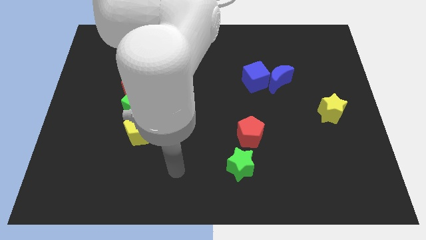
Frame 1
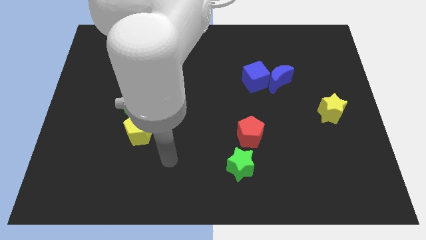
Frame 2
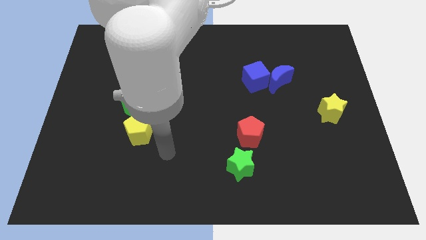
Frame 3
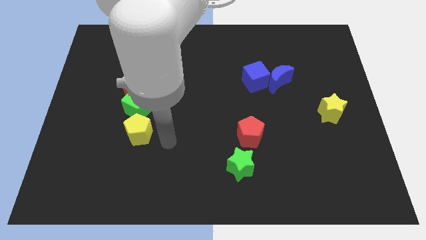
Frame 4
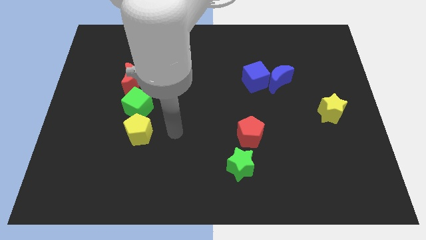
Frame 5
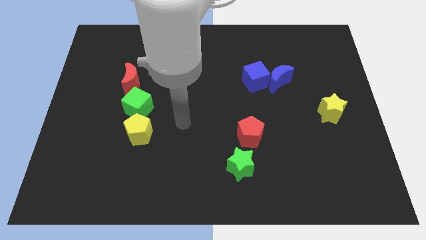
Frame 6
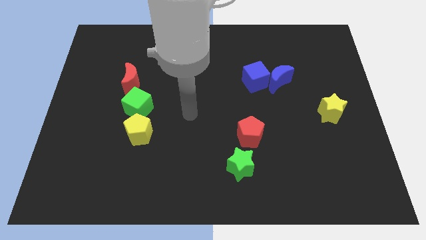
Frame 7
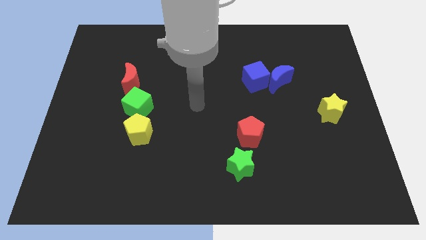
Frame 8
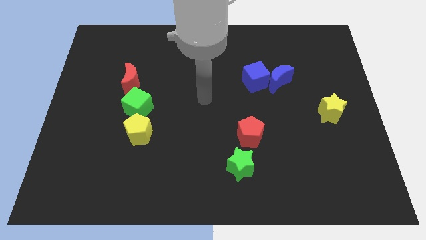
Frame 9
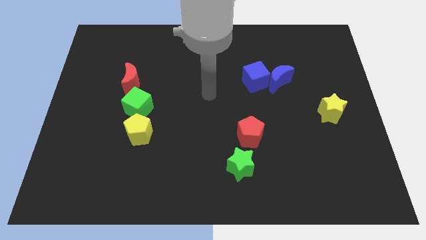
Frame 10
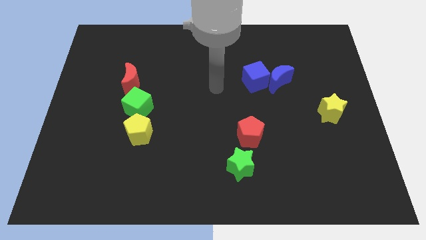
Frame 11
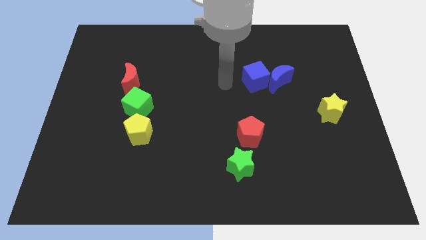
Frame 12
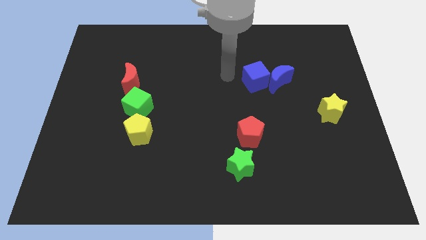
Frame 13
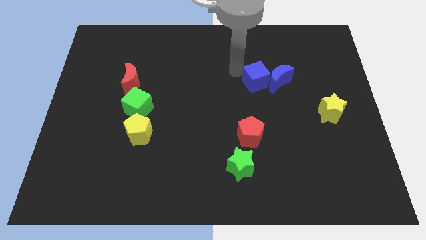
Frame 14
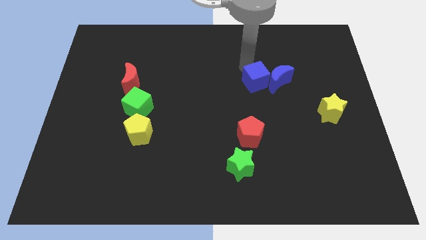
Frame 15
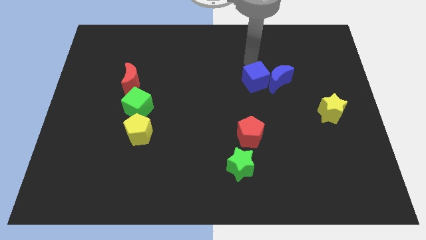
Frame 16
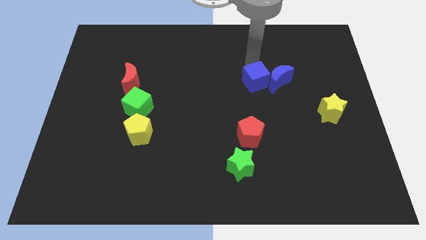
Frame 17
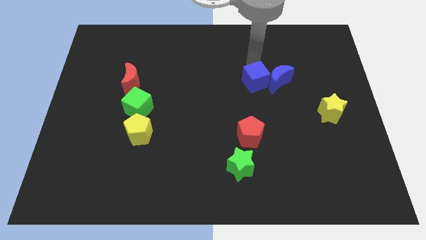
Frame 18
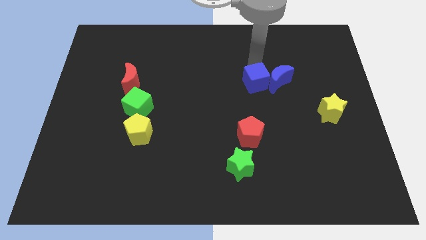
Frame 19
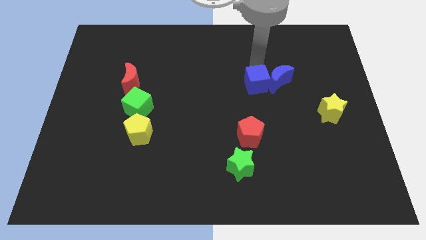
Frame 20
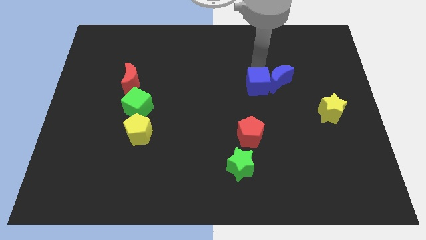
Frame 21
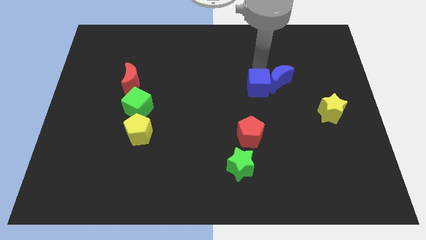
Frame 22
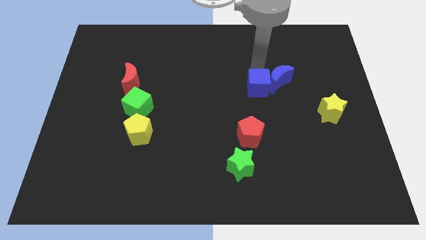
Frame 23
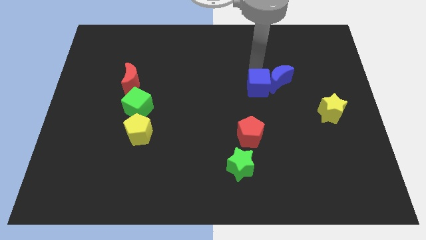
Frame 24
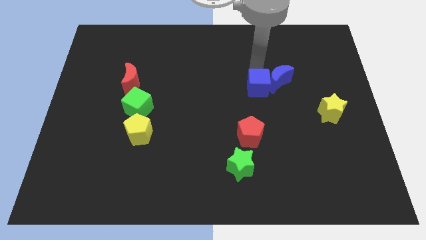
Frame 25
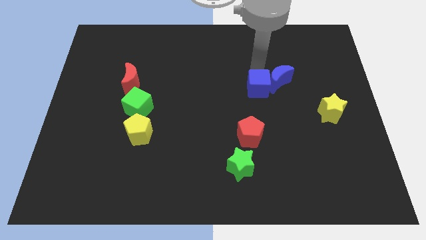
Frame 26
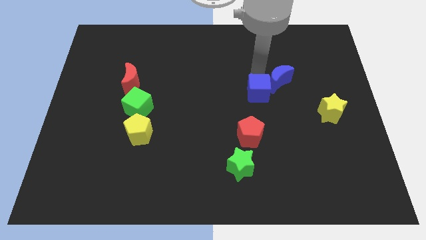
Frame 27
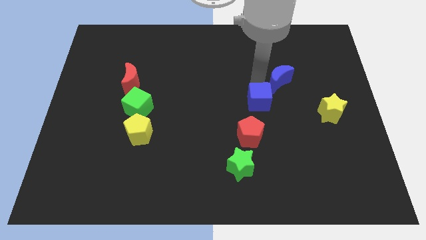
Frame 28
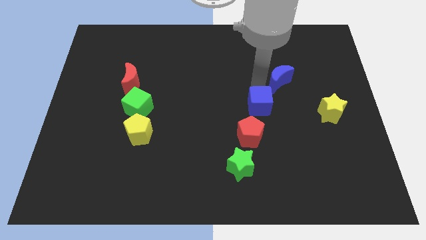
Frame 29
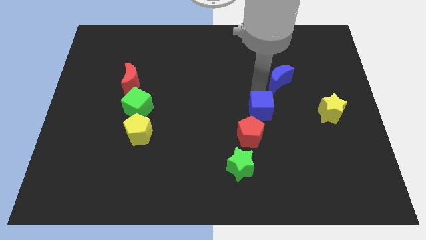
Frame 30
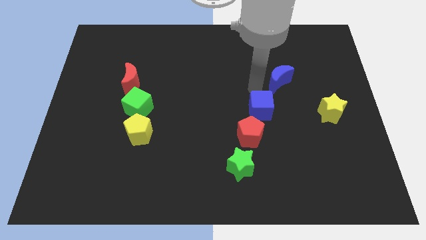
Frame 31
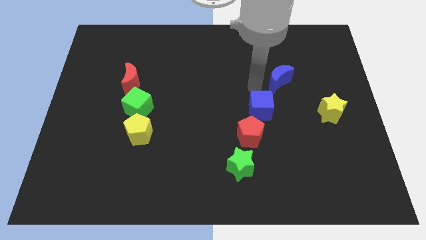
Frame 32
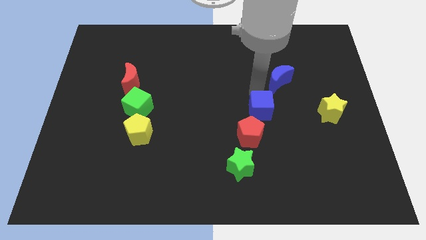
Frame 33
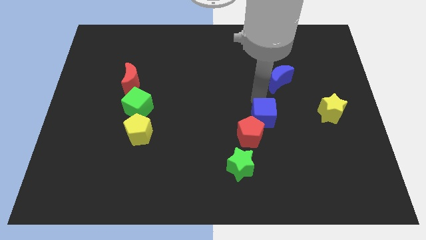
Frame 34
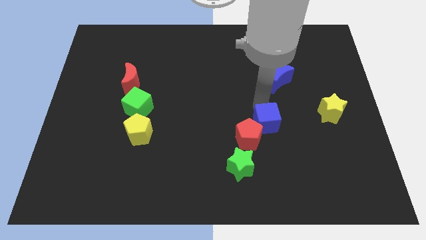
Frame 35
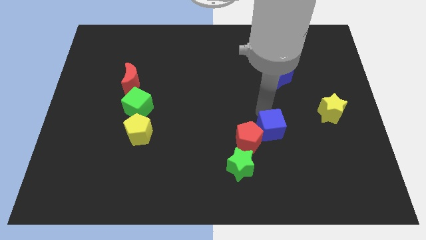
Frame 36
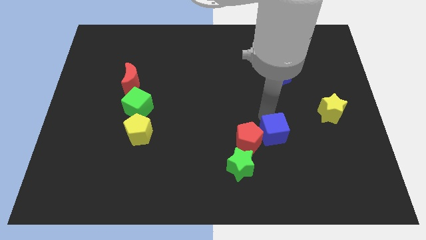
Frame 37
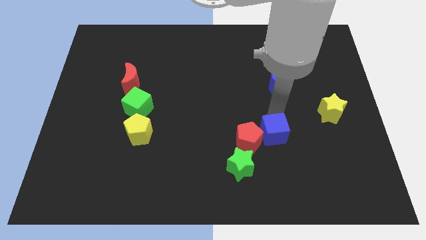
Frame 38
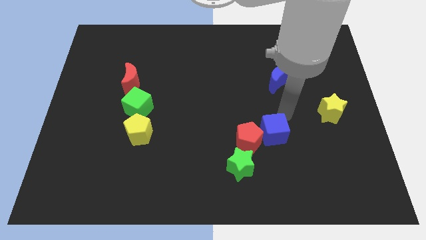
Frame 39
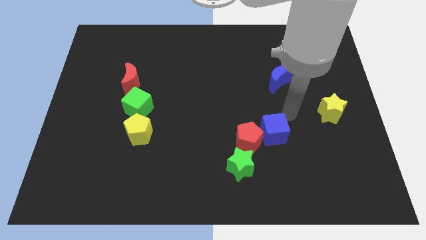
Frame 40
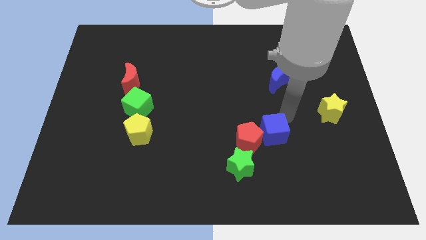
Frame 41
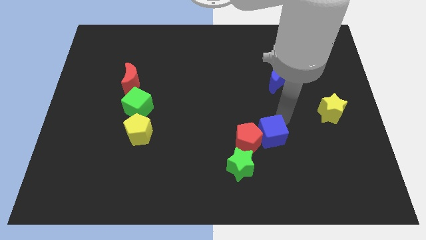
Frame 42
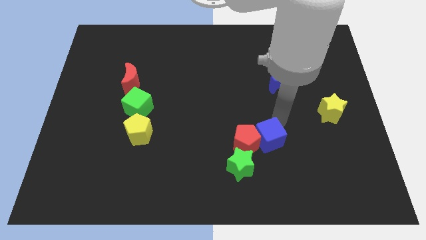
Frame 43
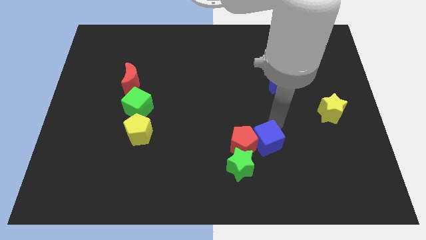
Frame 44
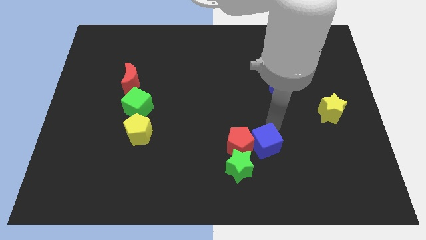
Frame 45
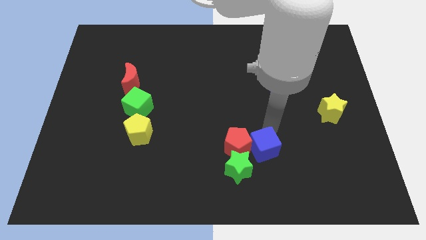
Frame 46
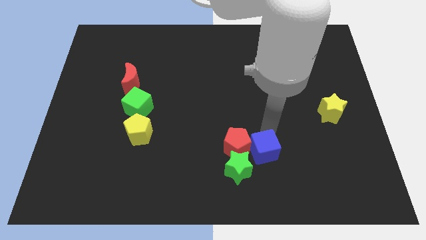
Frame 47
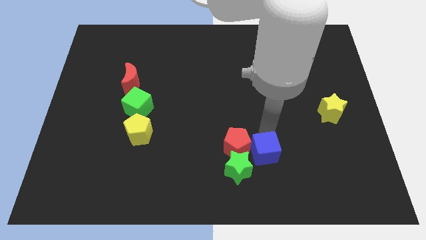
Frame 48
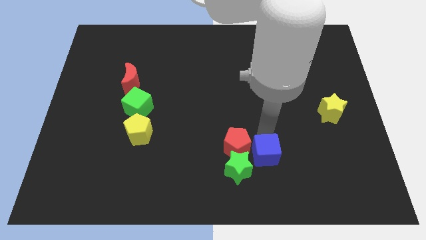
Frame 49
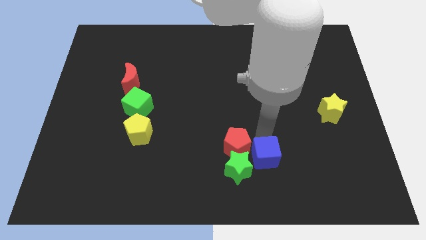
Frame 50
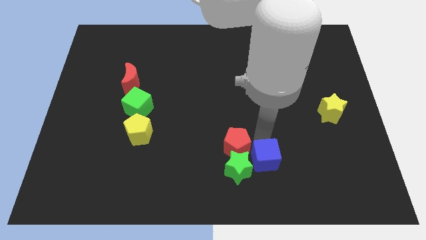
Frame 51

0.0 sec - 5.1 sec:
push the blue cube next to the green star

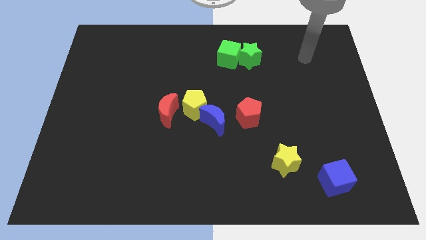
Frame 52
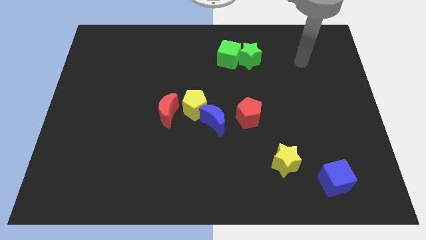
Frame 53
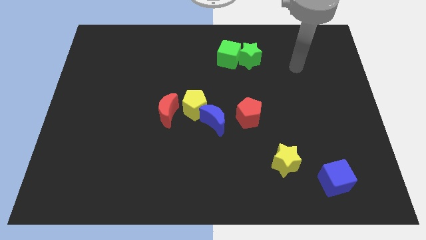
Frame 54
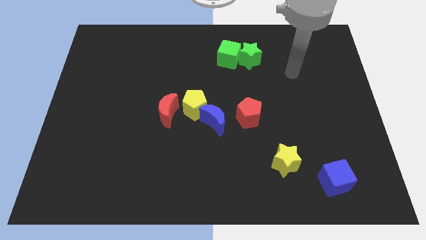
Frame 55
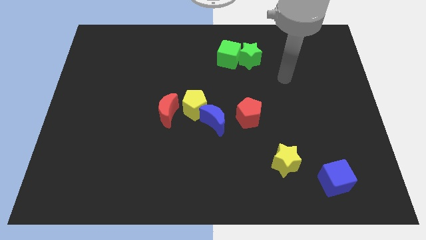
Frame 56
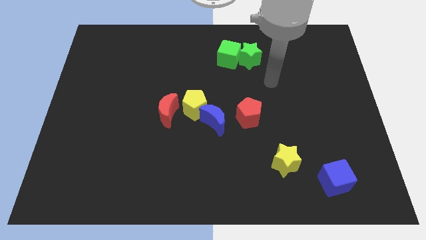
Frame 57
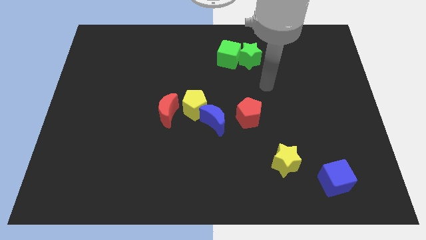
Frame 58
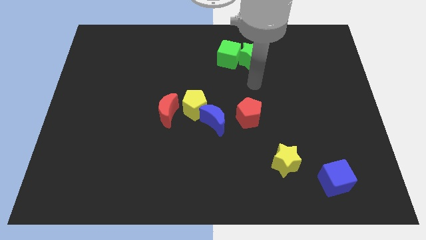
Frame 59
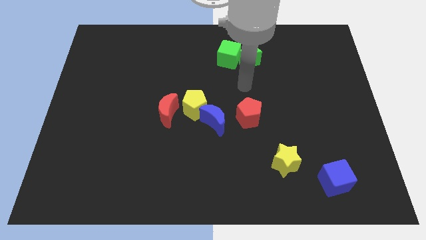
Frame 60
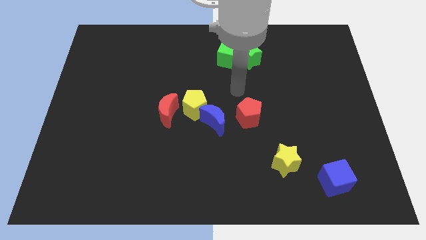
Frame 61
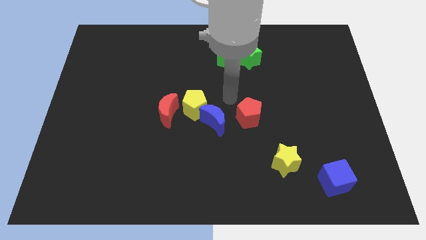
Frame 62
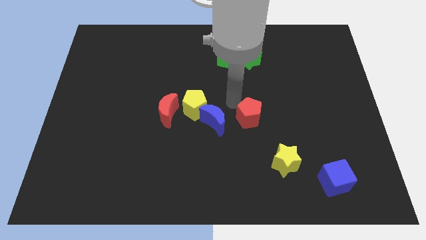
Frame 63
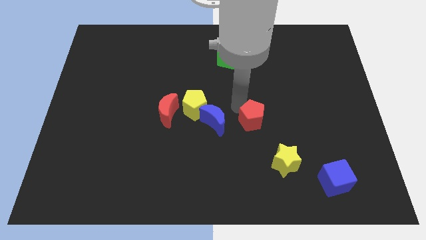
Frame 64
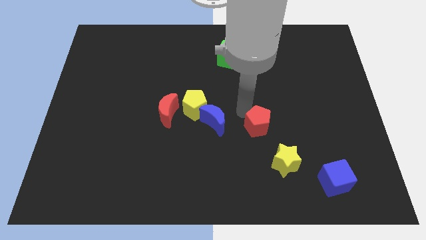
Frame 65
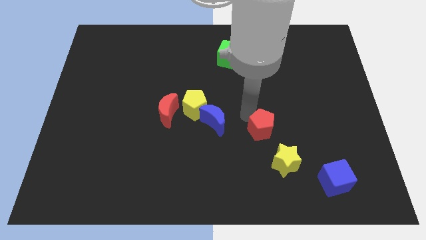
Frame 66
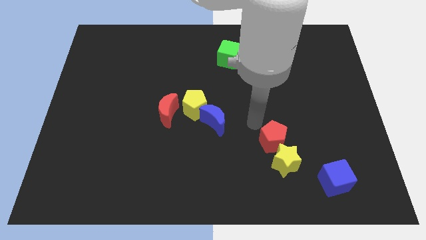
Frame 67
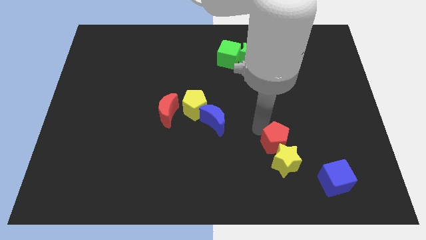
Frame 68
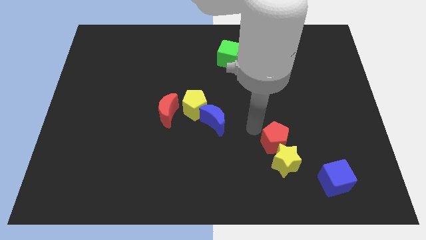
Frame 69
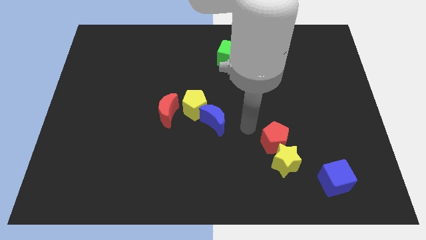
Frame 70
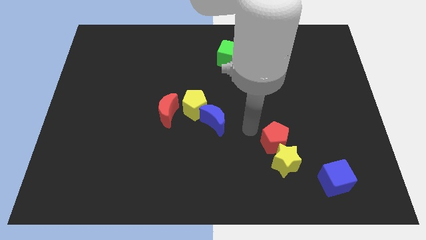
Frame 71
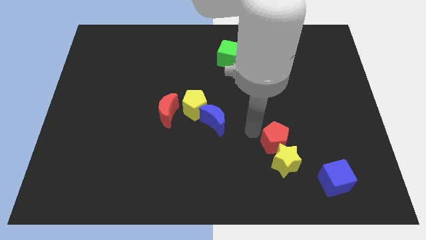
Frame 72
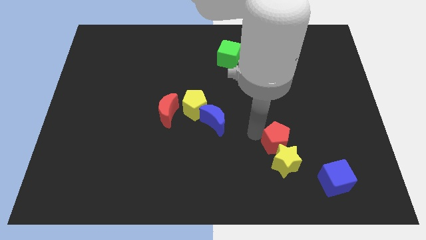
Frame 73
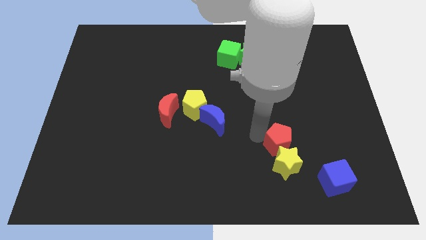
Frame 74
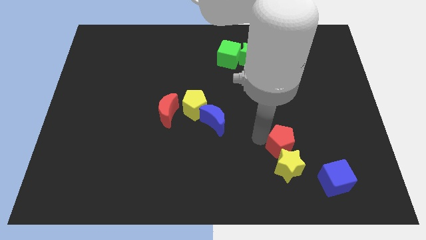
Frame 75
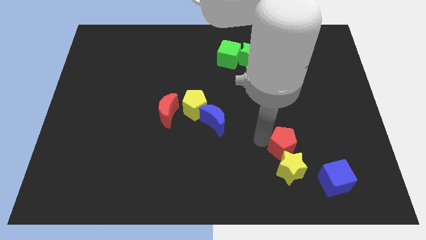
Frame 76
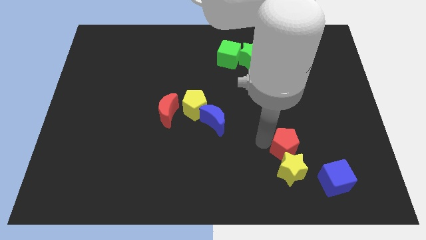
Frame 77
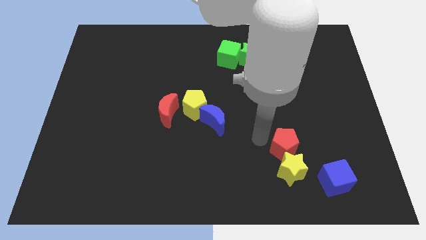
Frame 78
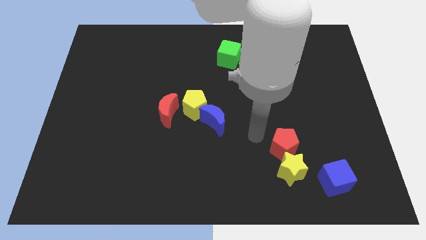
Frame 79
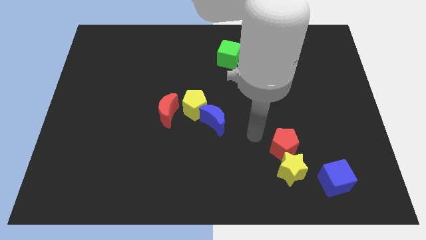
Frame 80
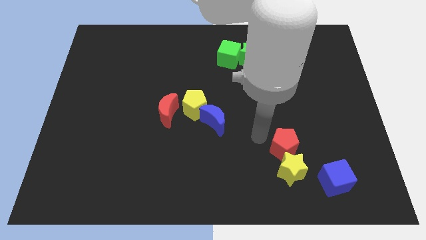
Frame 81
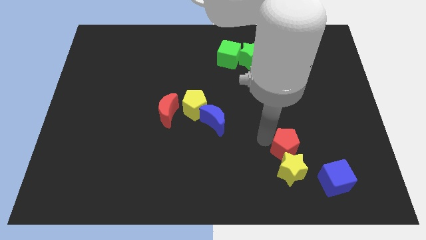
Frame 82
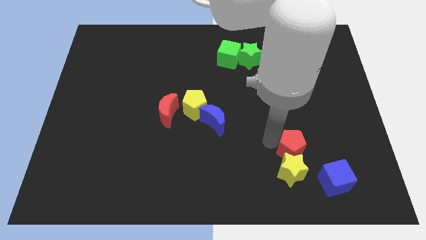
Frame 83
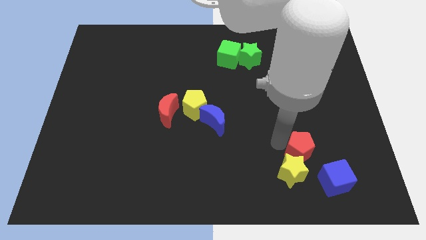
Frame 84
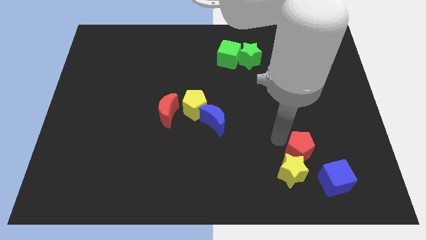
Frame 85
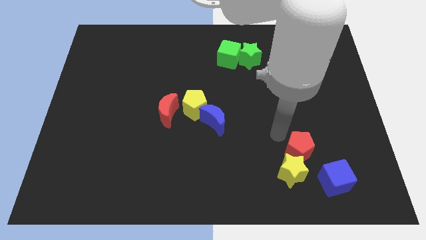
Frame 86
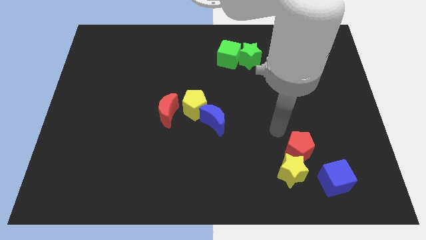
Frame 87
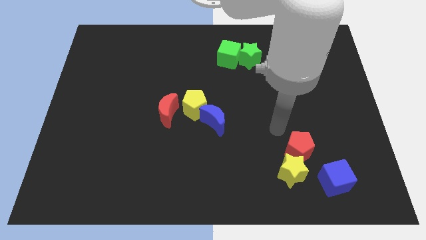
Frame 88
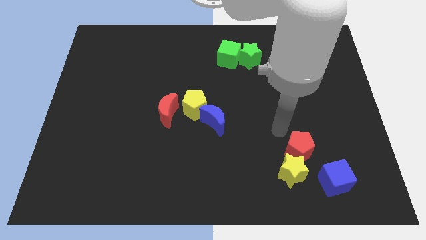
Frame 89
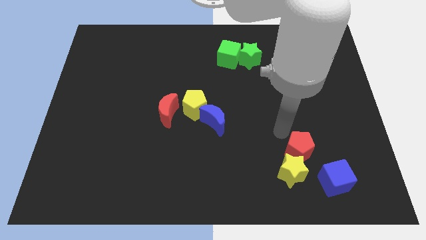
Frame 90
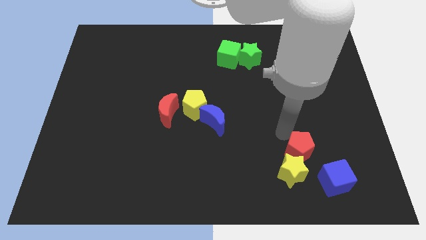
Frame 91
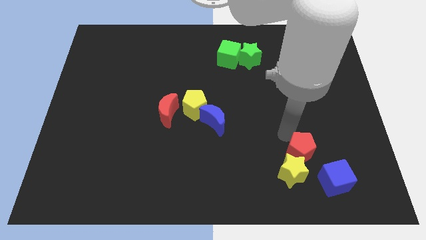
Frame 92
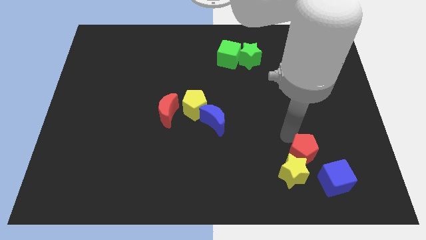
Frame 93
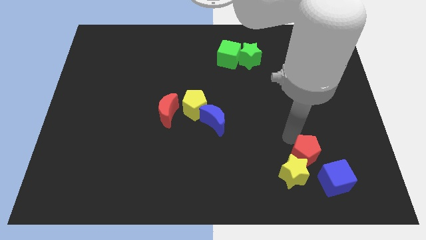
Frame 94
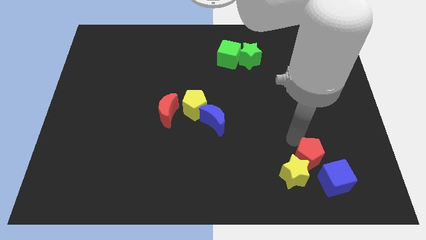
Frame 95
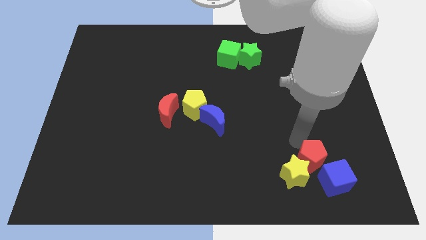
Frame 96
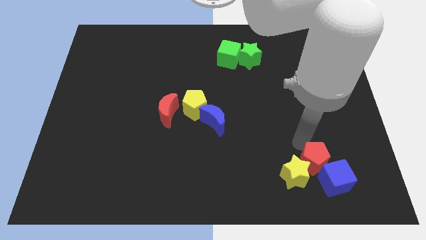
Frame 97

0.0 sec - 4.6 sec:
put the red pentagon next to the blue cube
